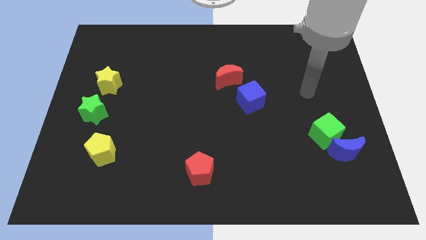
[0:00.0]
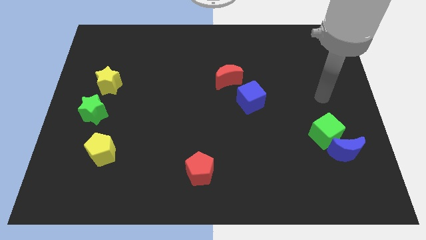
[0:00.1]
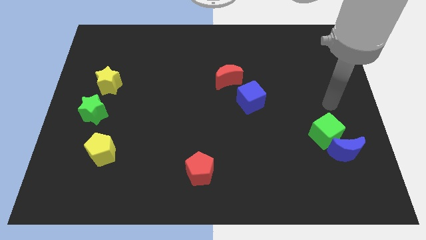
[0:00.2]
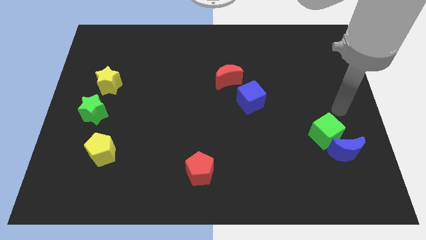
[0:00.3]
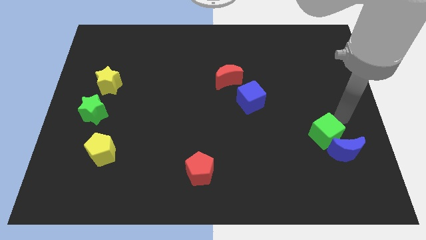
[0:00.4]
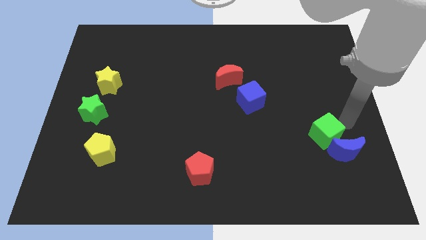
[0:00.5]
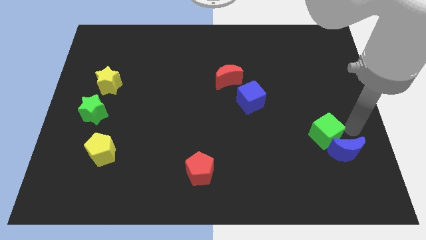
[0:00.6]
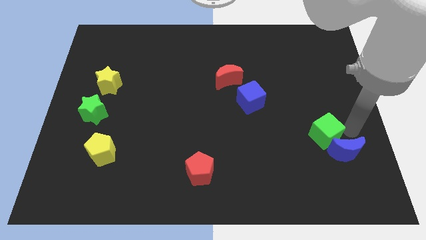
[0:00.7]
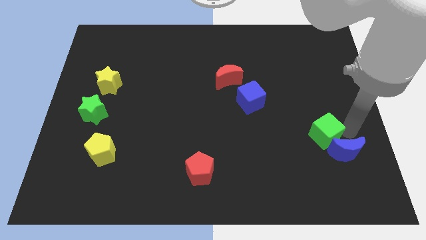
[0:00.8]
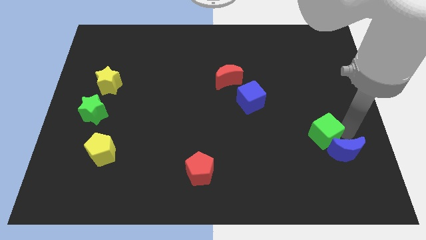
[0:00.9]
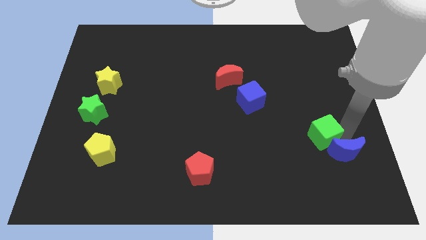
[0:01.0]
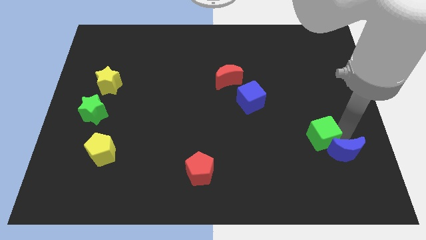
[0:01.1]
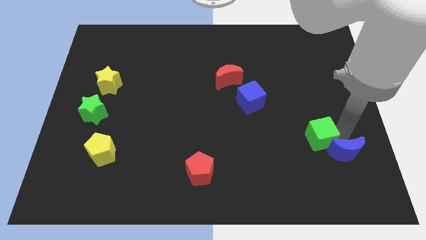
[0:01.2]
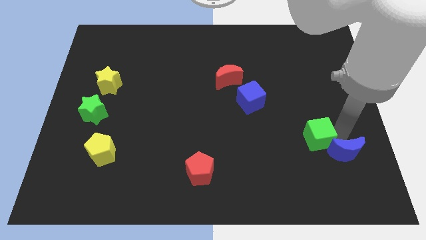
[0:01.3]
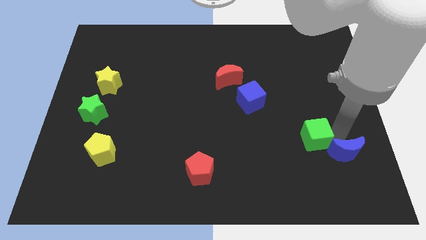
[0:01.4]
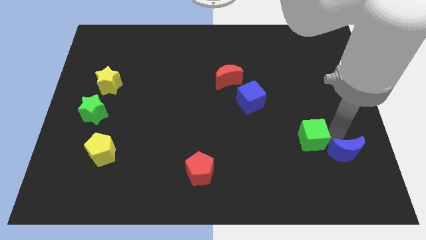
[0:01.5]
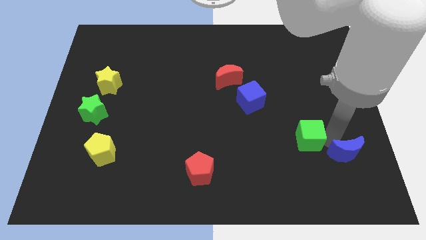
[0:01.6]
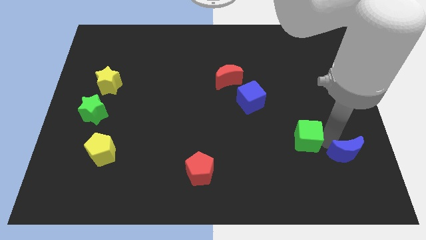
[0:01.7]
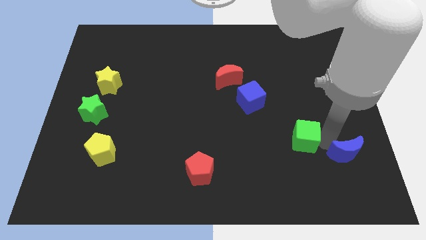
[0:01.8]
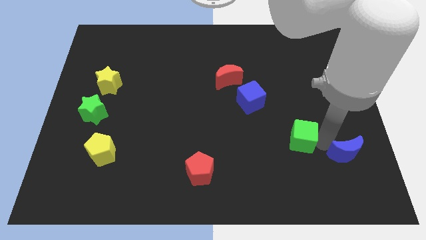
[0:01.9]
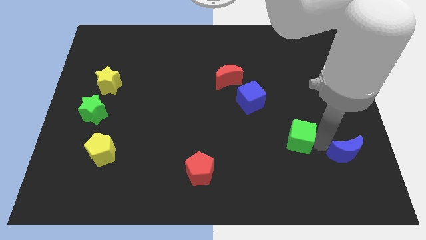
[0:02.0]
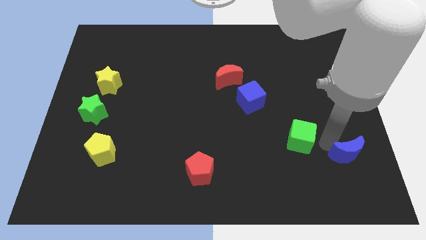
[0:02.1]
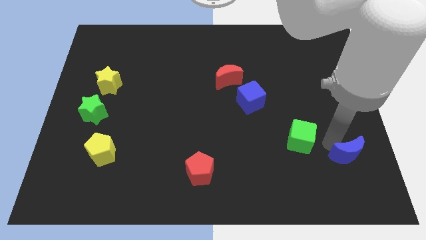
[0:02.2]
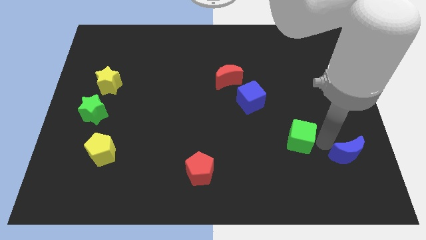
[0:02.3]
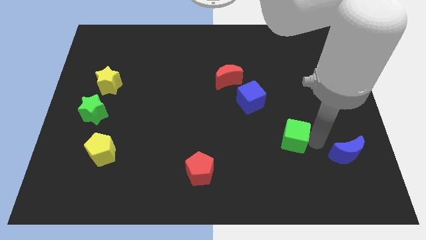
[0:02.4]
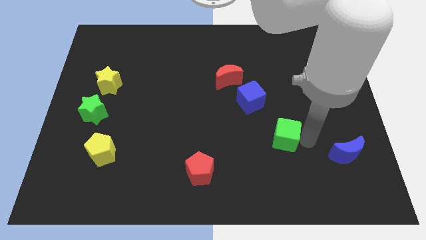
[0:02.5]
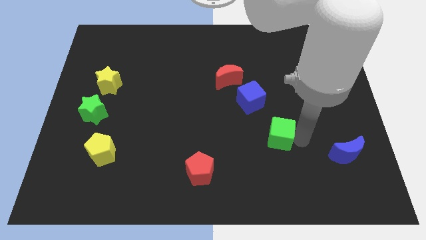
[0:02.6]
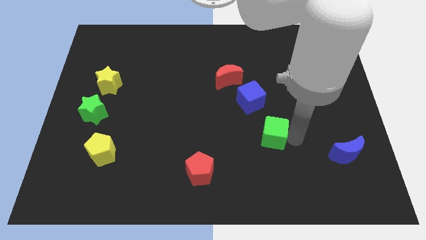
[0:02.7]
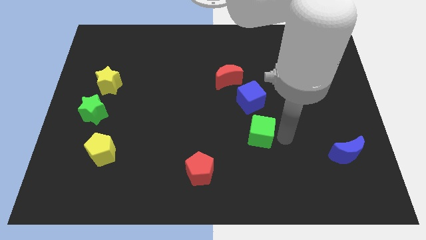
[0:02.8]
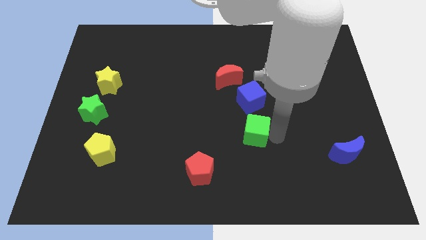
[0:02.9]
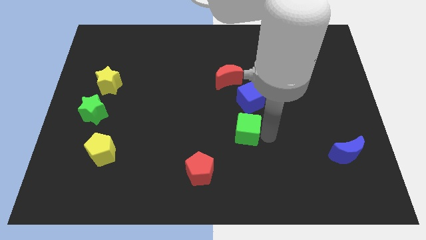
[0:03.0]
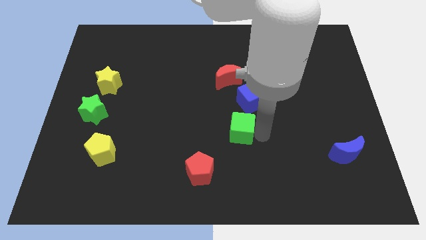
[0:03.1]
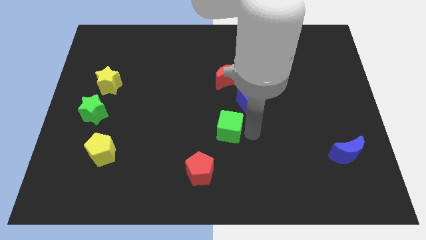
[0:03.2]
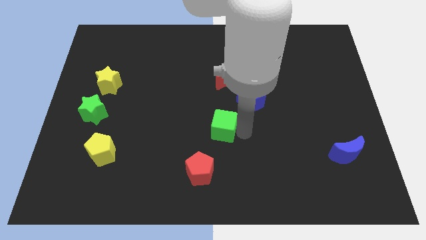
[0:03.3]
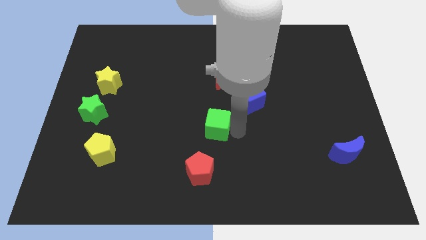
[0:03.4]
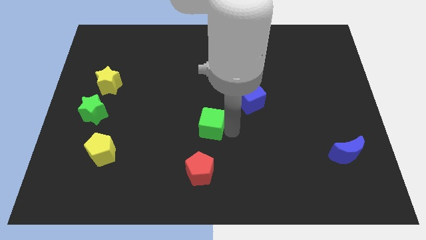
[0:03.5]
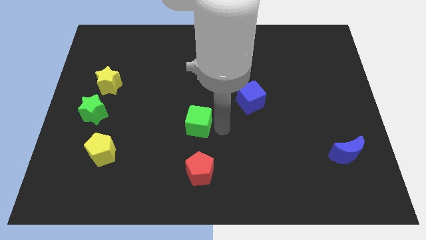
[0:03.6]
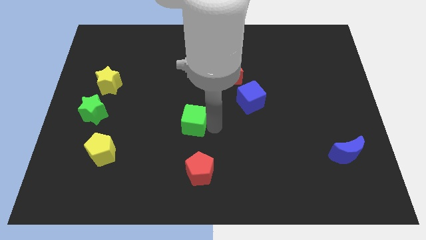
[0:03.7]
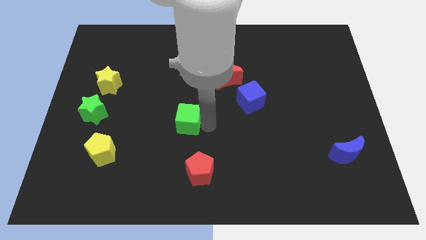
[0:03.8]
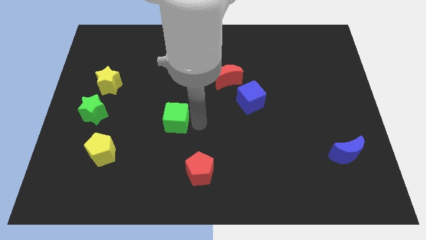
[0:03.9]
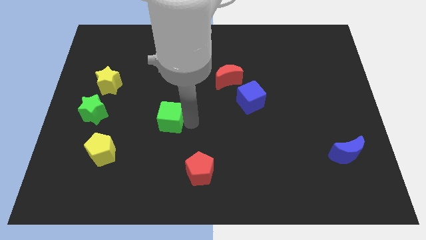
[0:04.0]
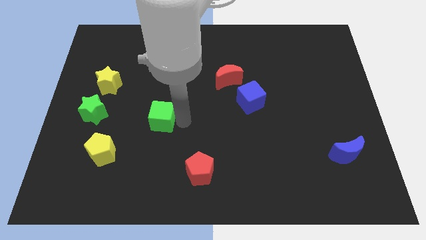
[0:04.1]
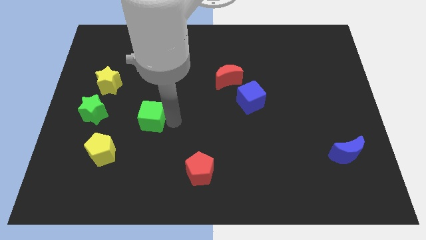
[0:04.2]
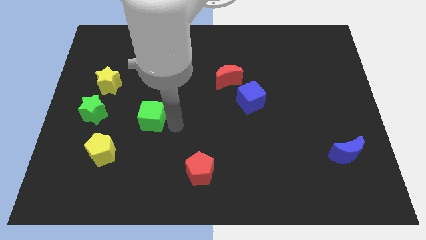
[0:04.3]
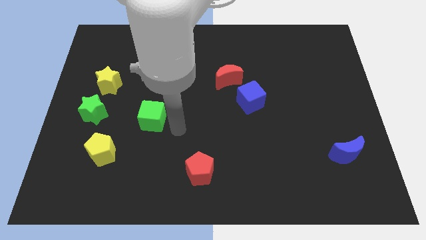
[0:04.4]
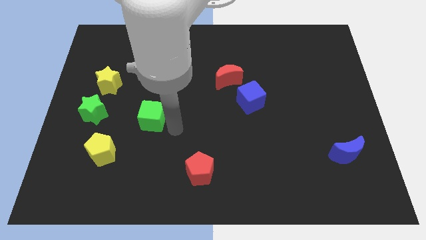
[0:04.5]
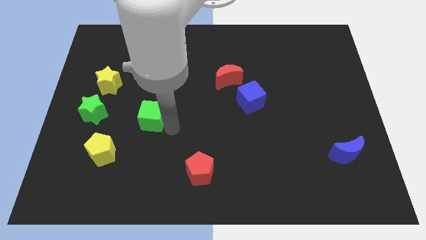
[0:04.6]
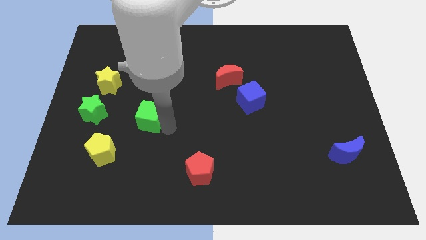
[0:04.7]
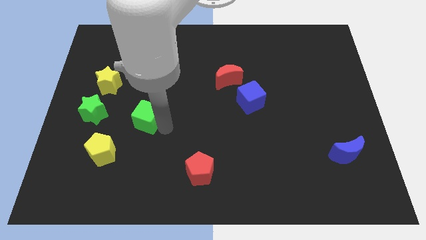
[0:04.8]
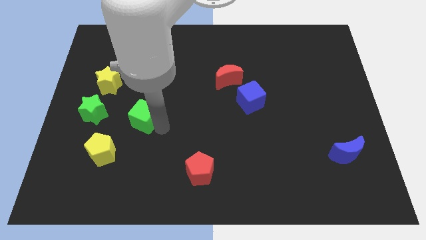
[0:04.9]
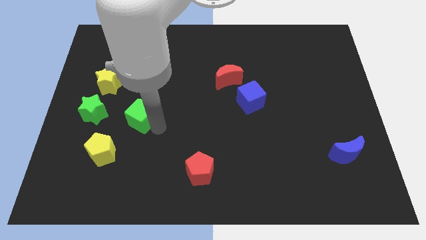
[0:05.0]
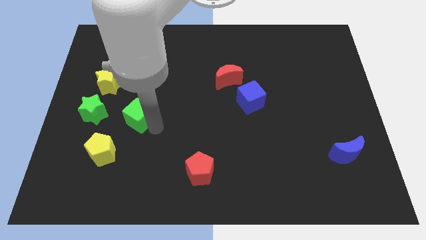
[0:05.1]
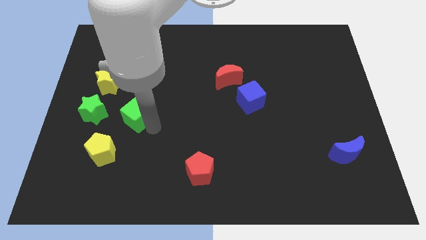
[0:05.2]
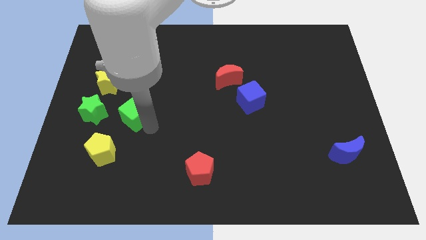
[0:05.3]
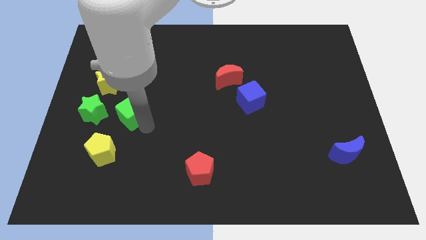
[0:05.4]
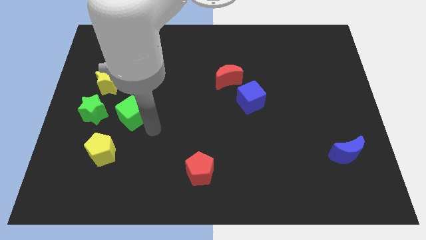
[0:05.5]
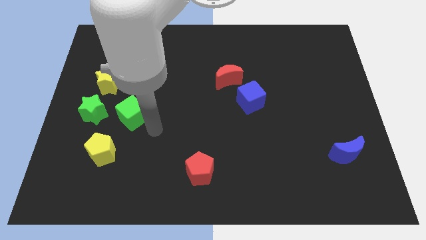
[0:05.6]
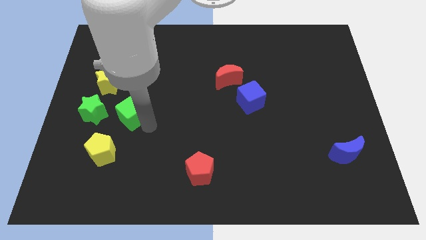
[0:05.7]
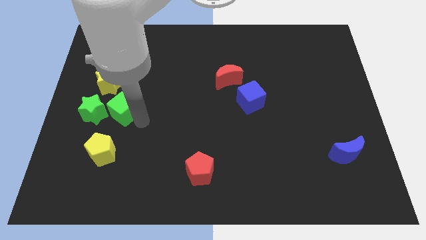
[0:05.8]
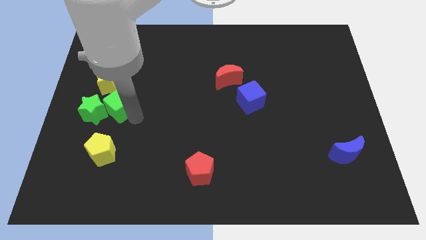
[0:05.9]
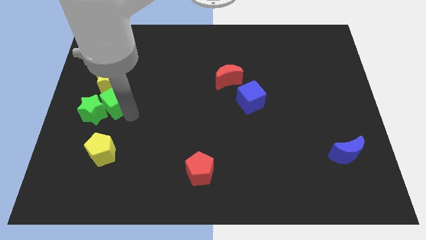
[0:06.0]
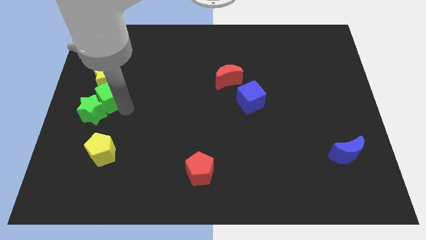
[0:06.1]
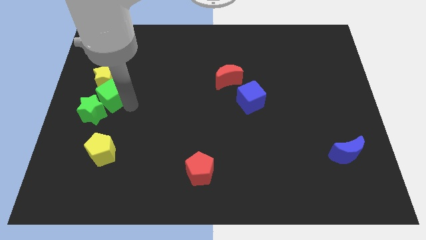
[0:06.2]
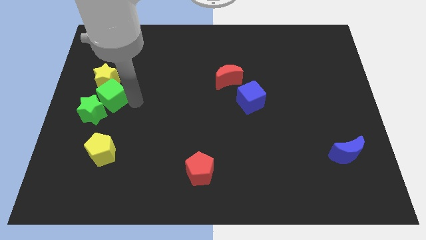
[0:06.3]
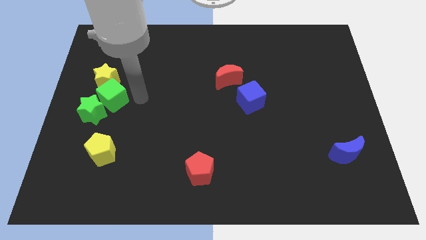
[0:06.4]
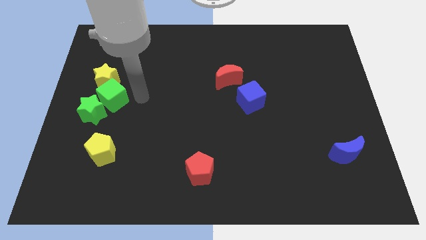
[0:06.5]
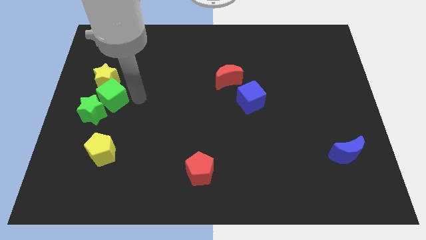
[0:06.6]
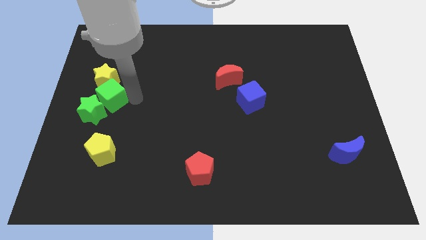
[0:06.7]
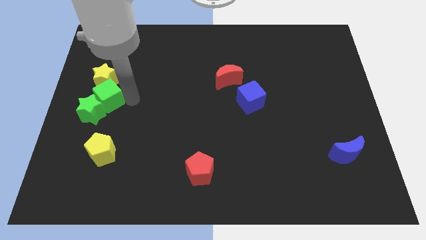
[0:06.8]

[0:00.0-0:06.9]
move the green cube to the left side
